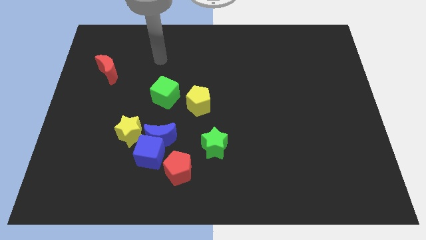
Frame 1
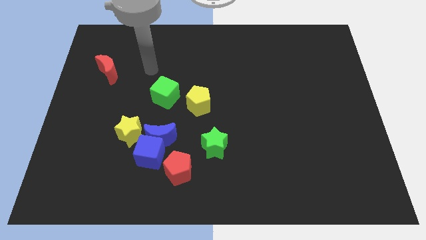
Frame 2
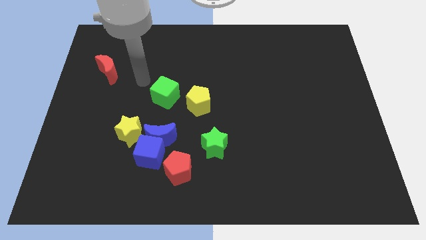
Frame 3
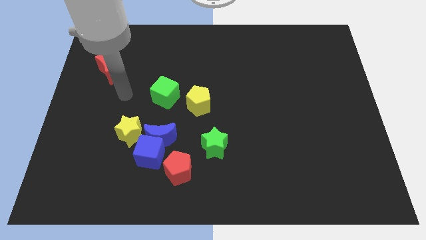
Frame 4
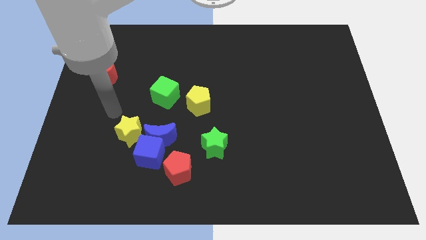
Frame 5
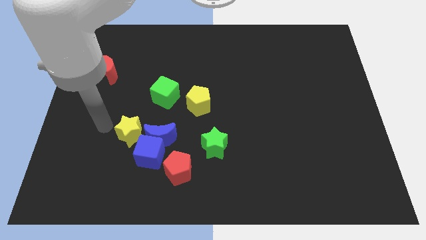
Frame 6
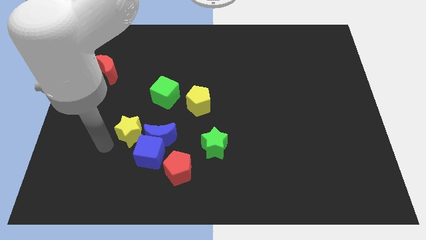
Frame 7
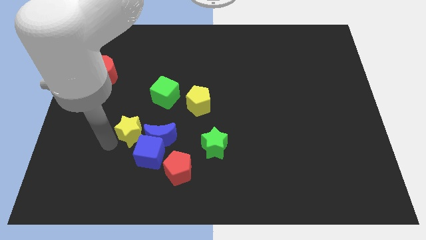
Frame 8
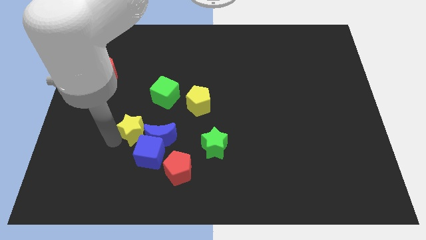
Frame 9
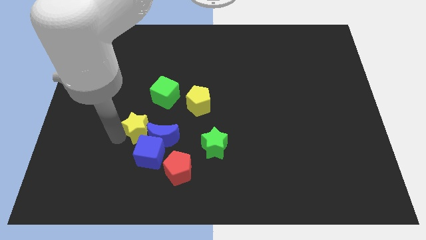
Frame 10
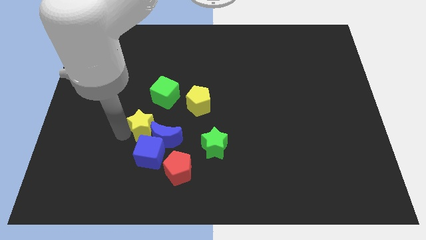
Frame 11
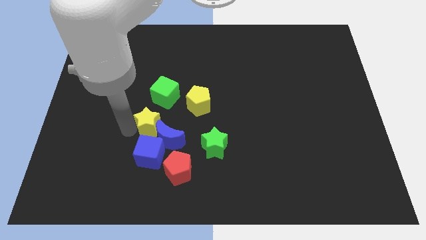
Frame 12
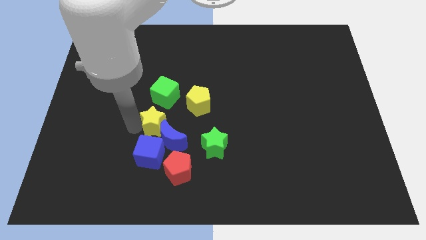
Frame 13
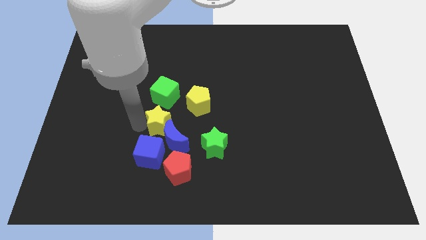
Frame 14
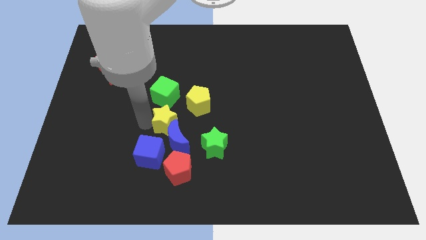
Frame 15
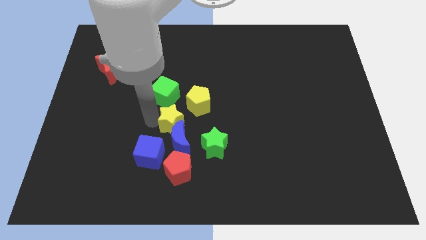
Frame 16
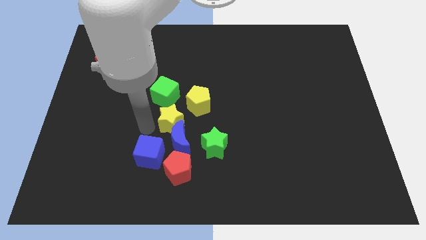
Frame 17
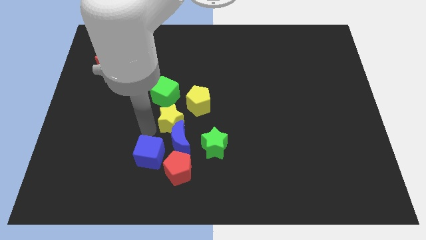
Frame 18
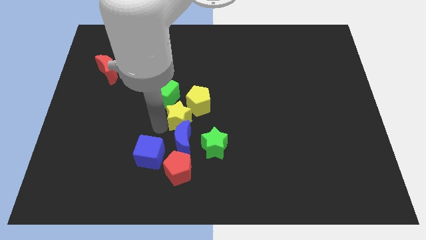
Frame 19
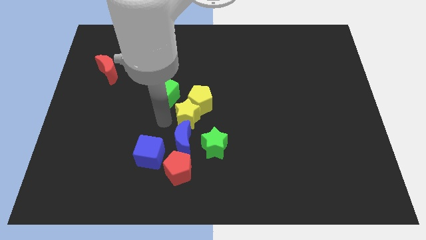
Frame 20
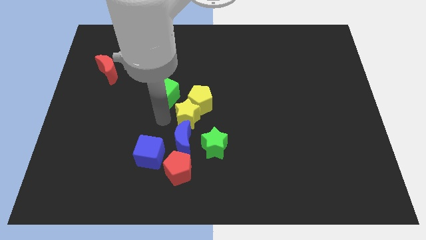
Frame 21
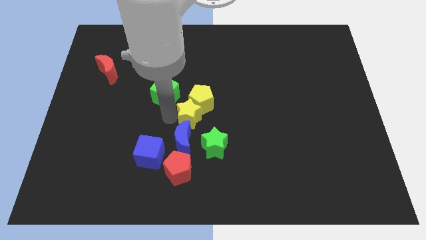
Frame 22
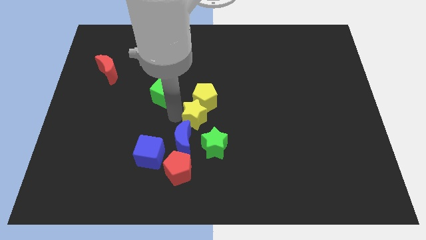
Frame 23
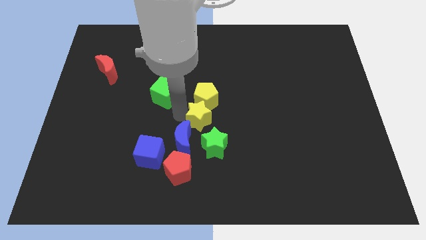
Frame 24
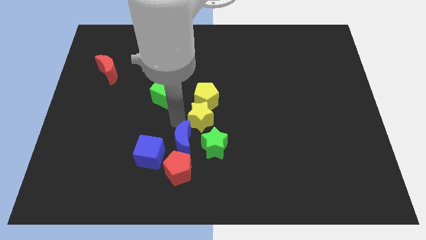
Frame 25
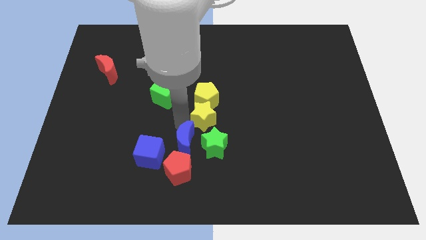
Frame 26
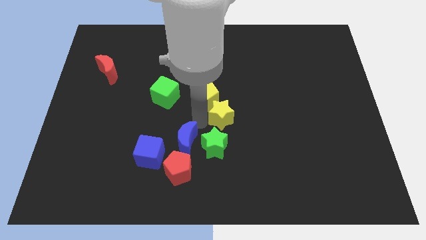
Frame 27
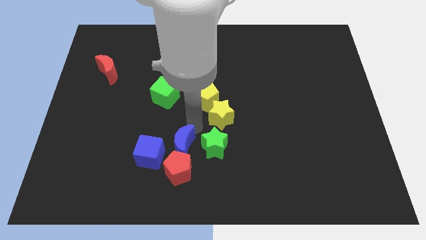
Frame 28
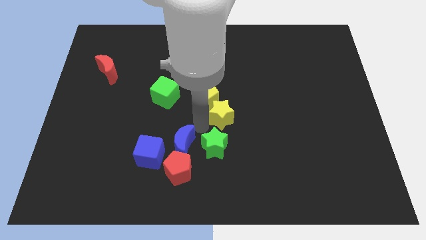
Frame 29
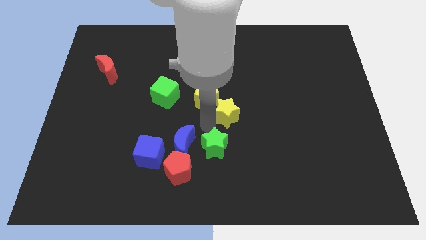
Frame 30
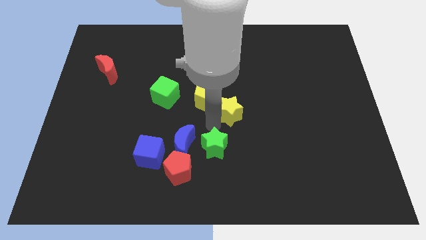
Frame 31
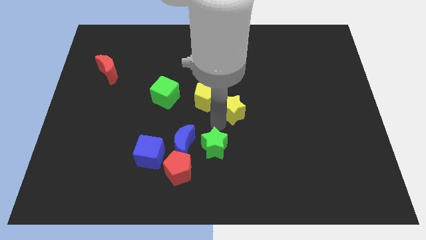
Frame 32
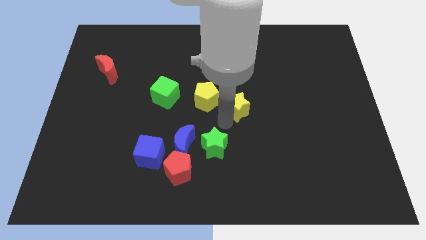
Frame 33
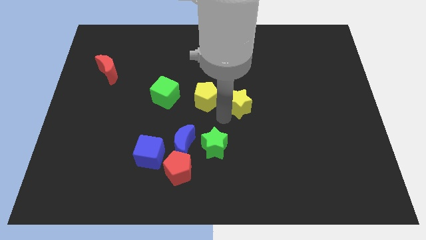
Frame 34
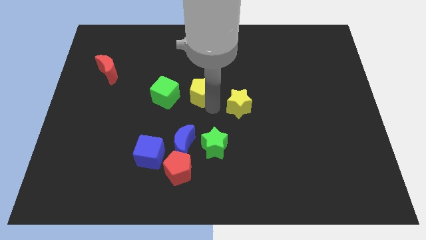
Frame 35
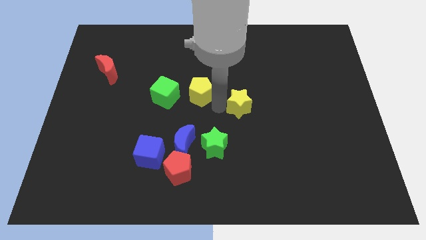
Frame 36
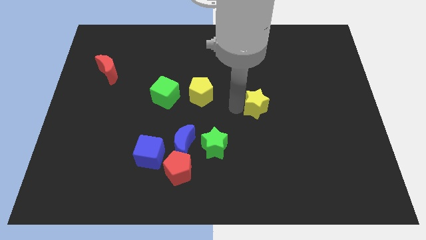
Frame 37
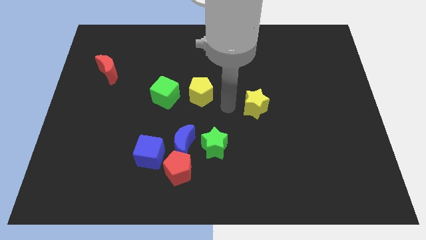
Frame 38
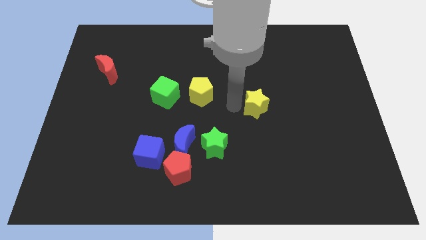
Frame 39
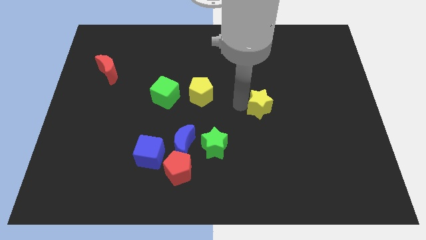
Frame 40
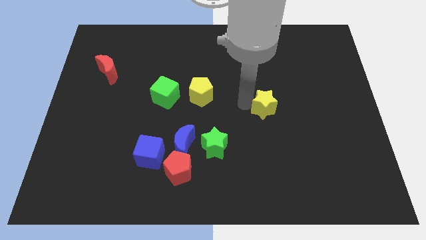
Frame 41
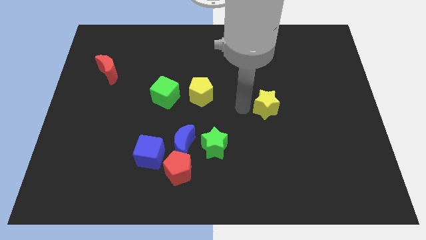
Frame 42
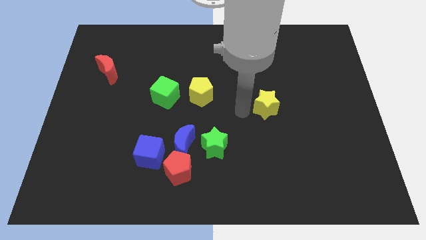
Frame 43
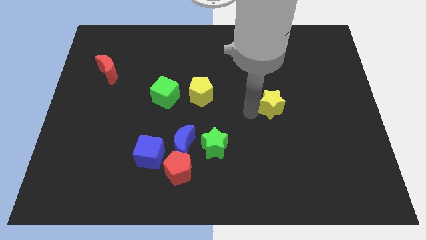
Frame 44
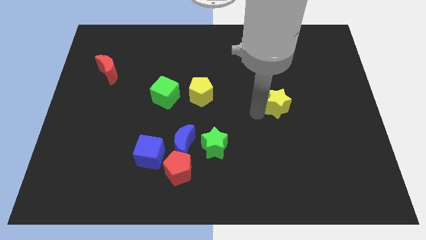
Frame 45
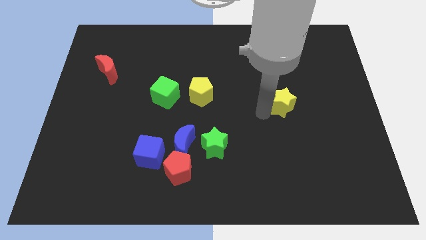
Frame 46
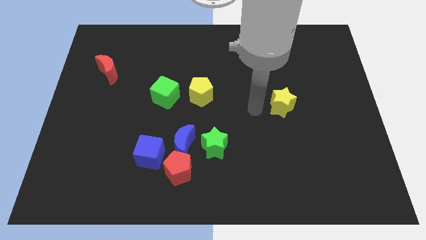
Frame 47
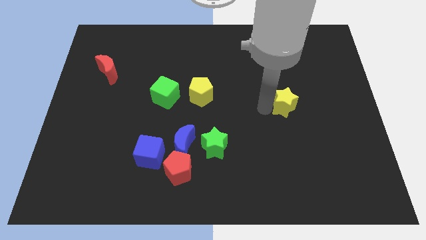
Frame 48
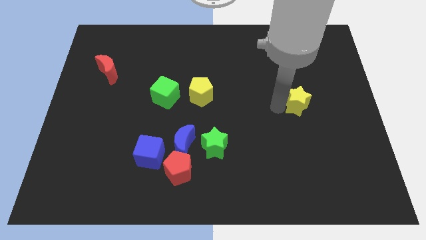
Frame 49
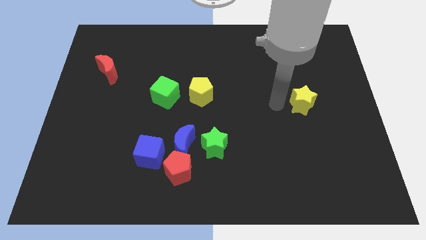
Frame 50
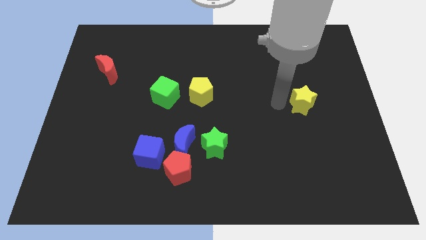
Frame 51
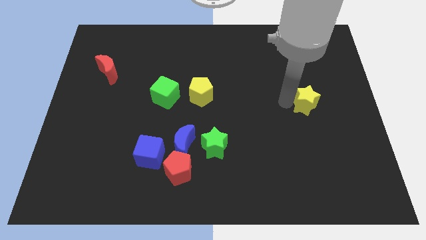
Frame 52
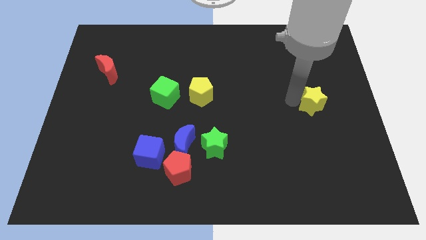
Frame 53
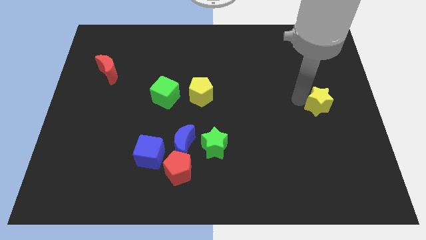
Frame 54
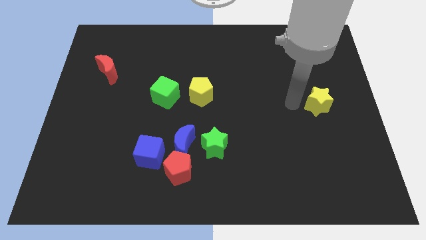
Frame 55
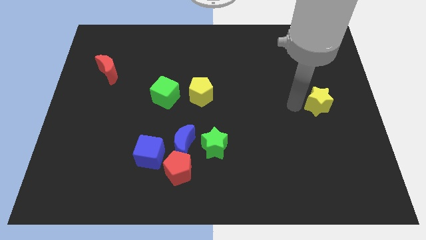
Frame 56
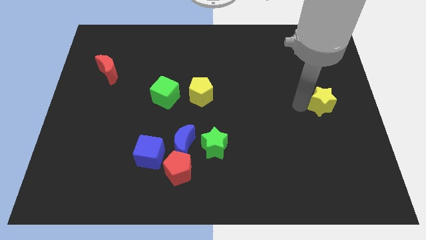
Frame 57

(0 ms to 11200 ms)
slide the yellow star to the right side
